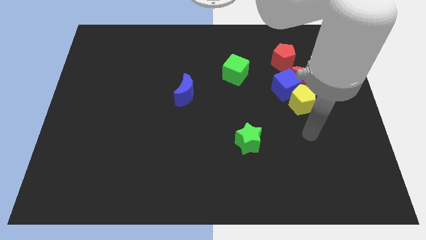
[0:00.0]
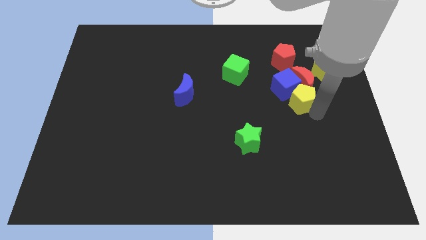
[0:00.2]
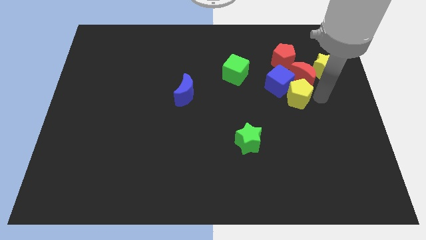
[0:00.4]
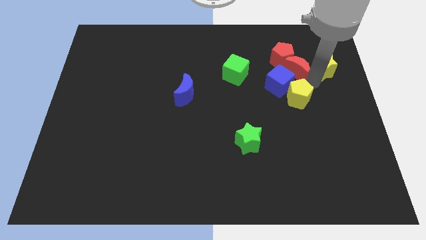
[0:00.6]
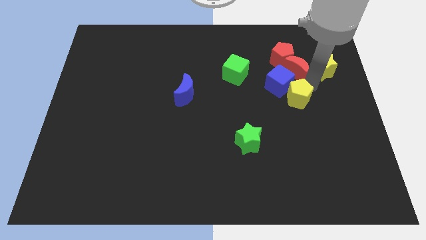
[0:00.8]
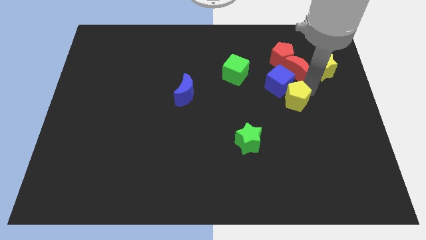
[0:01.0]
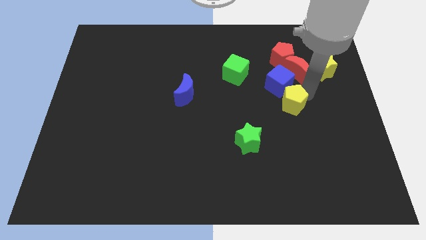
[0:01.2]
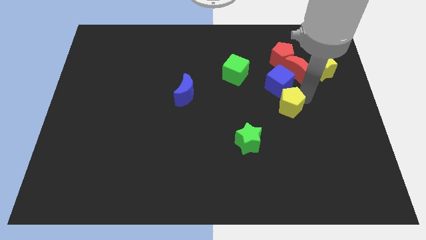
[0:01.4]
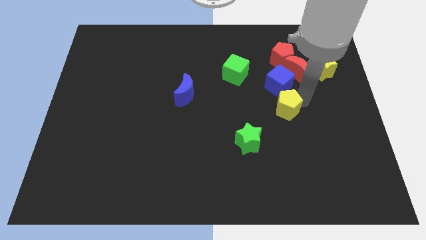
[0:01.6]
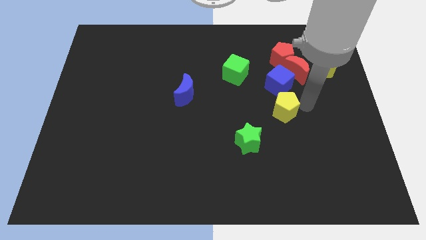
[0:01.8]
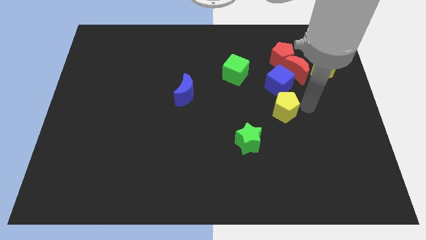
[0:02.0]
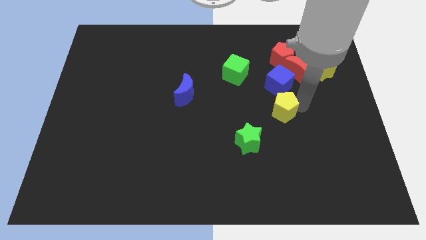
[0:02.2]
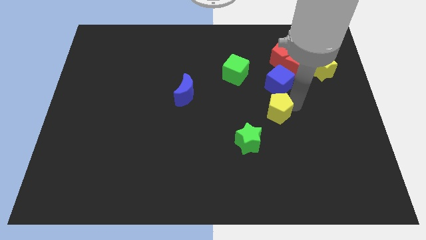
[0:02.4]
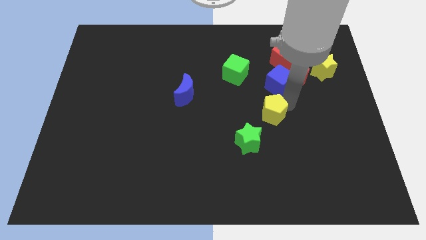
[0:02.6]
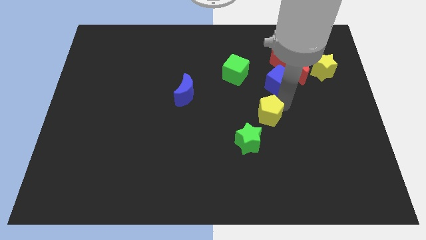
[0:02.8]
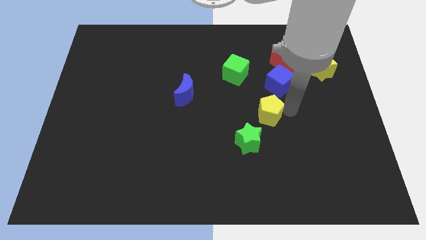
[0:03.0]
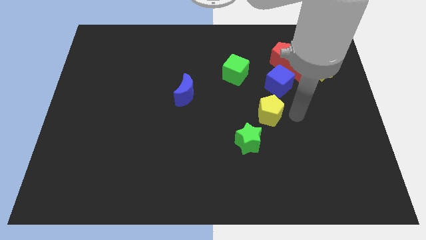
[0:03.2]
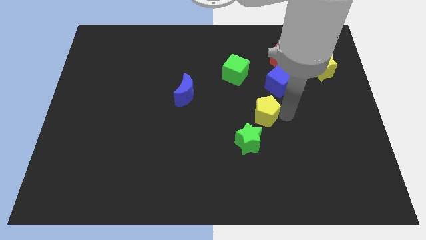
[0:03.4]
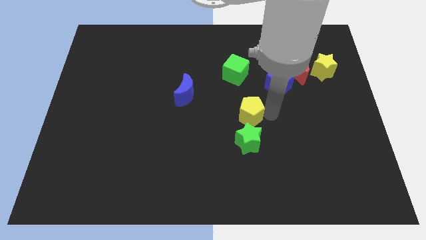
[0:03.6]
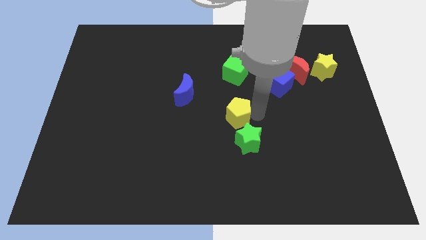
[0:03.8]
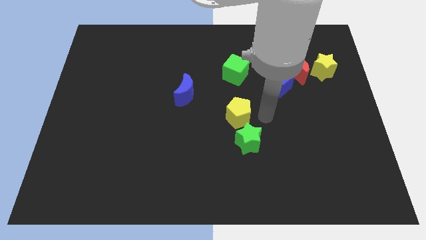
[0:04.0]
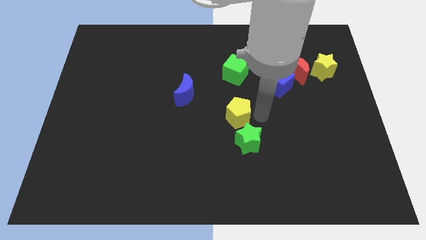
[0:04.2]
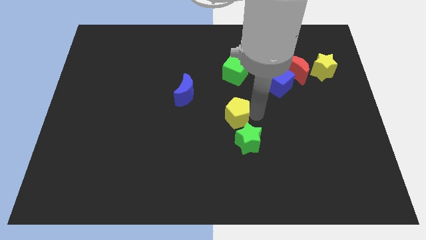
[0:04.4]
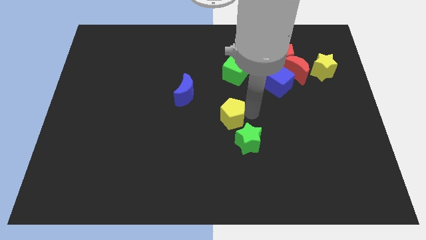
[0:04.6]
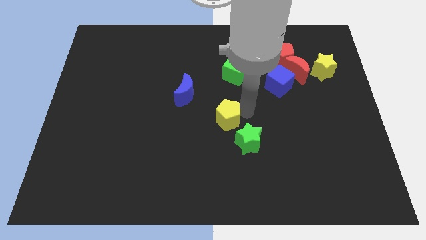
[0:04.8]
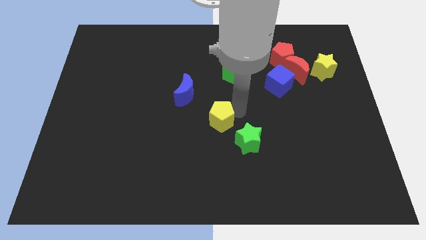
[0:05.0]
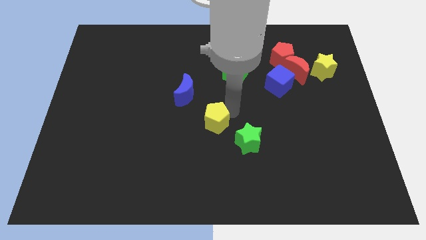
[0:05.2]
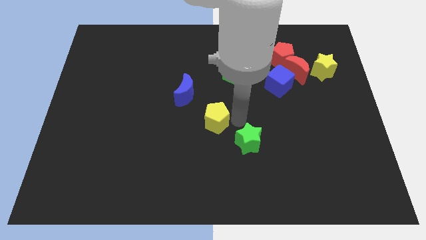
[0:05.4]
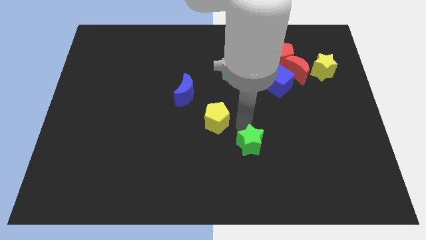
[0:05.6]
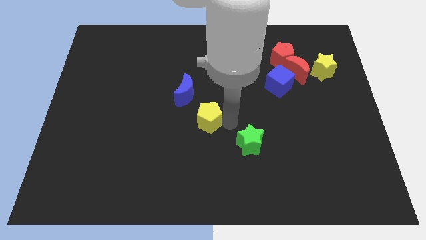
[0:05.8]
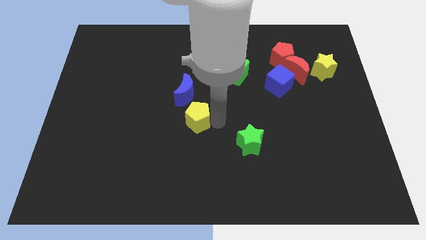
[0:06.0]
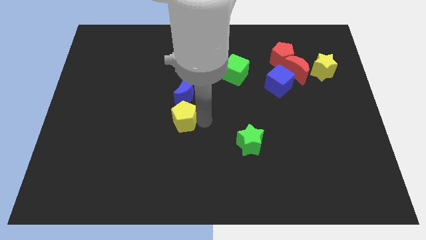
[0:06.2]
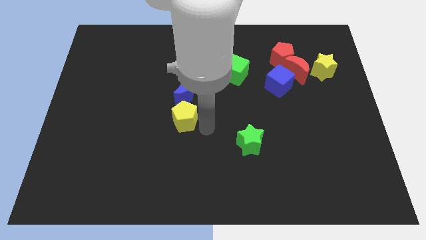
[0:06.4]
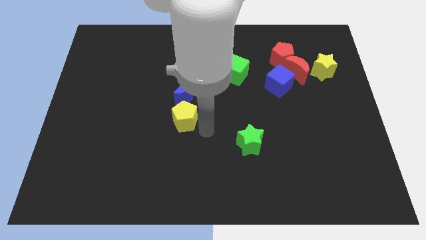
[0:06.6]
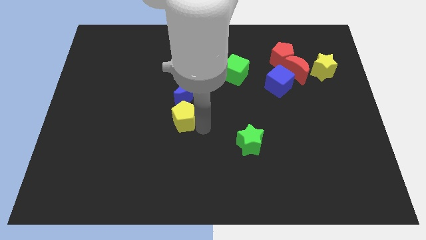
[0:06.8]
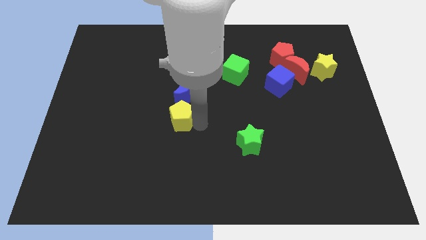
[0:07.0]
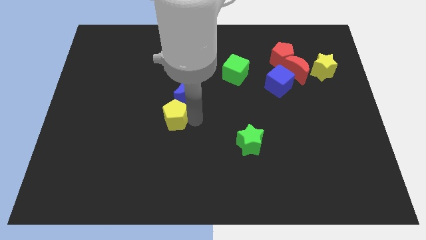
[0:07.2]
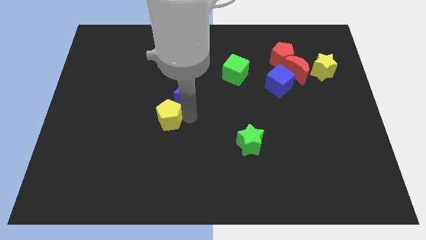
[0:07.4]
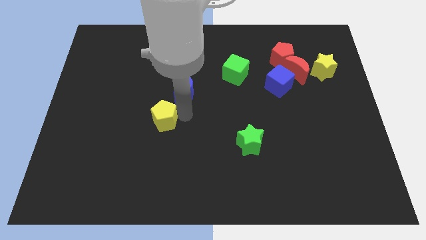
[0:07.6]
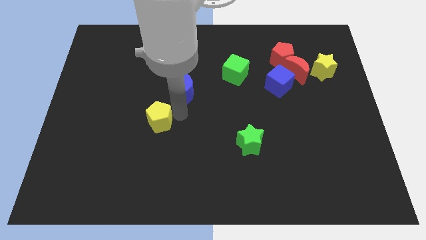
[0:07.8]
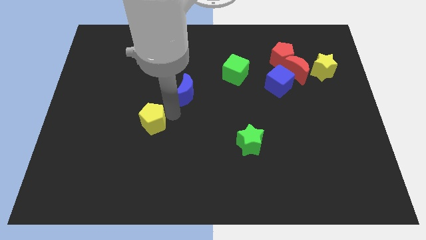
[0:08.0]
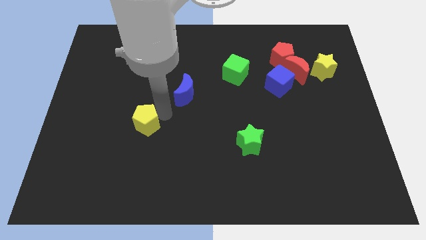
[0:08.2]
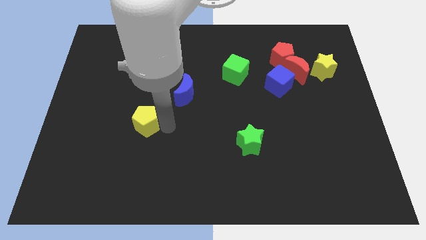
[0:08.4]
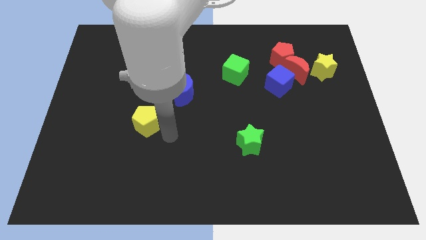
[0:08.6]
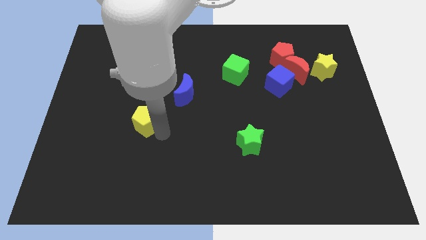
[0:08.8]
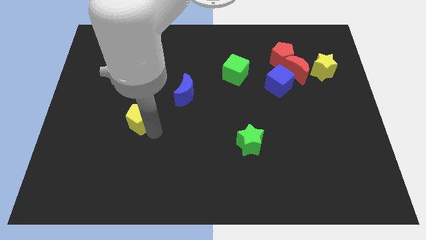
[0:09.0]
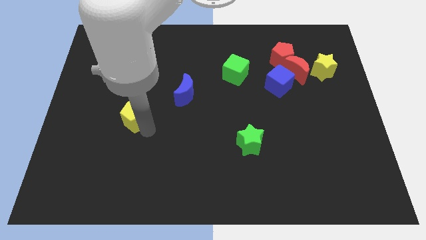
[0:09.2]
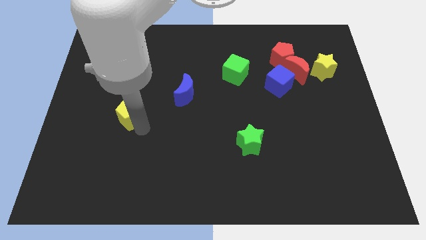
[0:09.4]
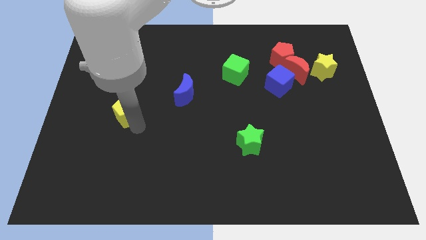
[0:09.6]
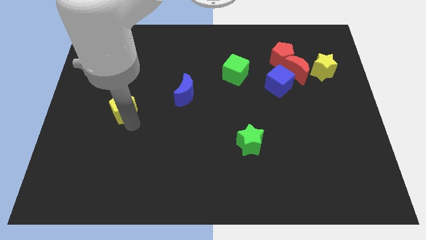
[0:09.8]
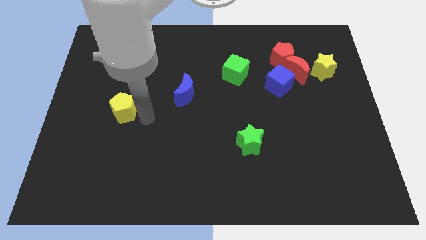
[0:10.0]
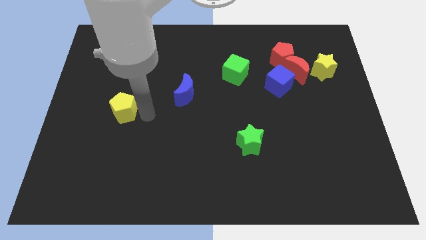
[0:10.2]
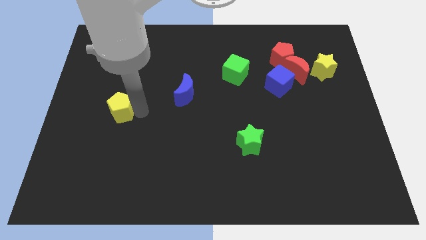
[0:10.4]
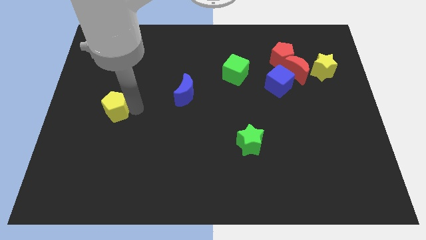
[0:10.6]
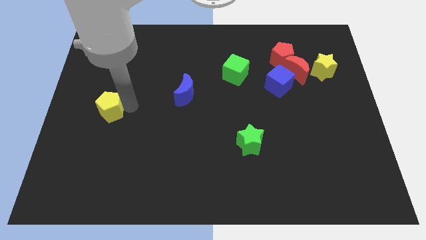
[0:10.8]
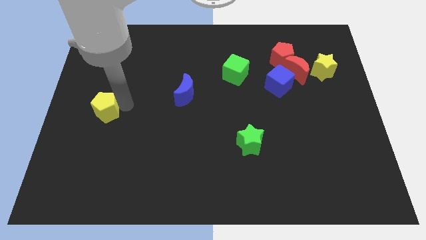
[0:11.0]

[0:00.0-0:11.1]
put the yellow pentagon to the center left

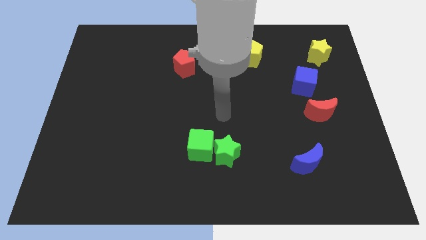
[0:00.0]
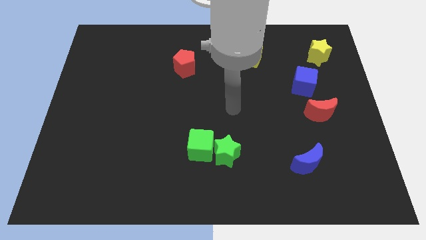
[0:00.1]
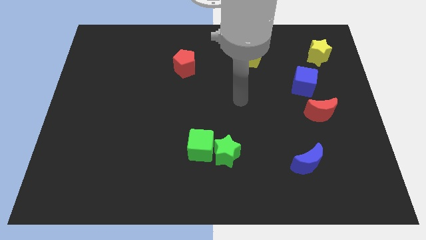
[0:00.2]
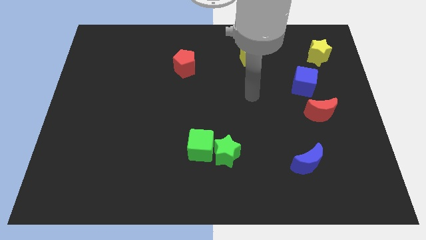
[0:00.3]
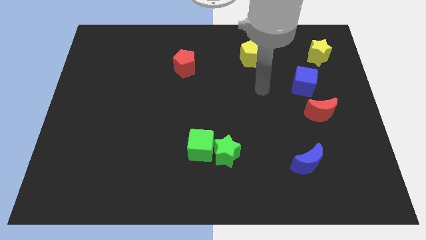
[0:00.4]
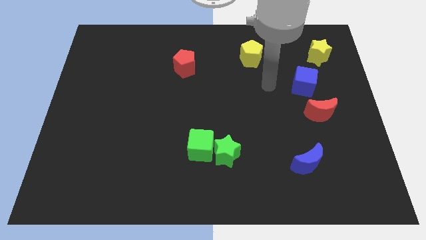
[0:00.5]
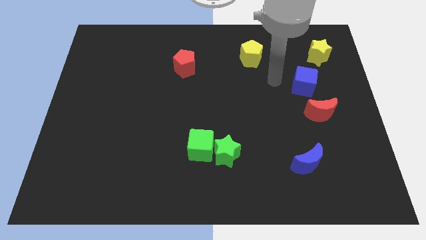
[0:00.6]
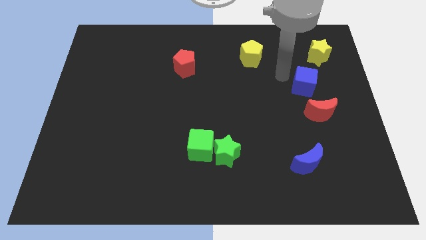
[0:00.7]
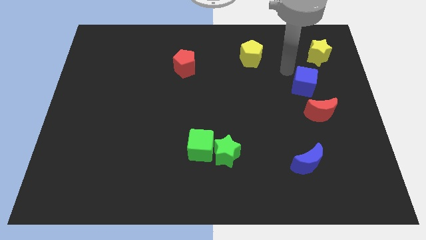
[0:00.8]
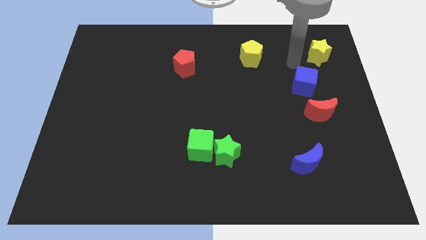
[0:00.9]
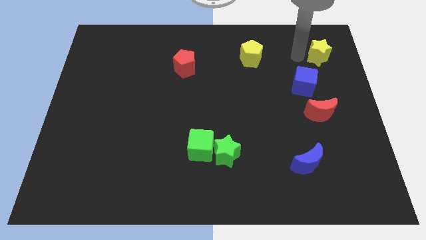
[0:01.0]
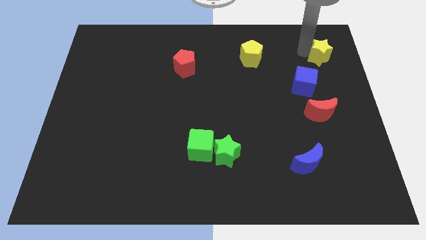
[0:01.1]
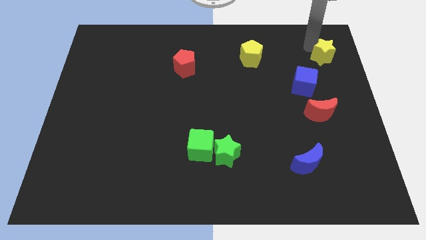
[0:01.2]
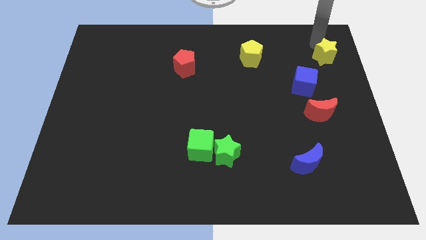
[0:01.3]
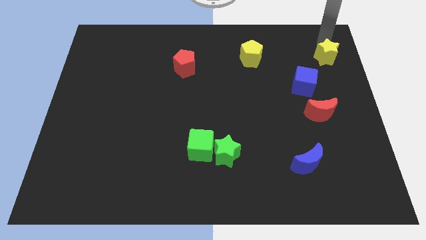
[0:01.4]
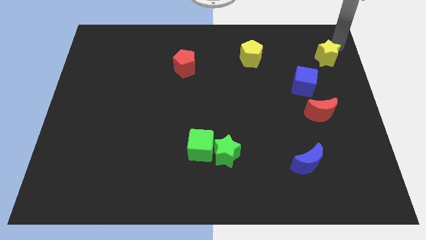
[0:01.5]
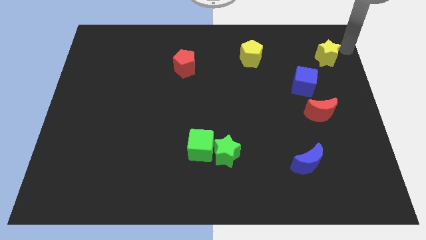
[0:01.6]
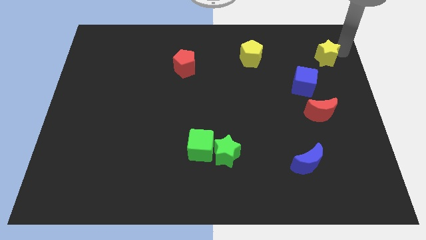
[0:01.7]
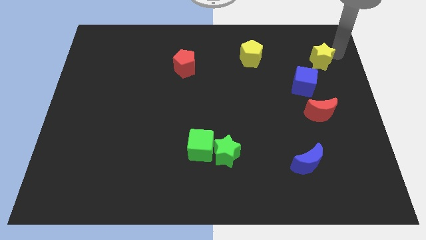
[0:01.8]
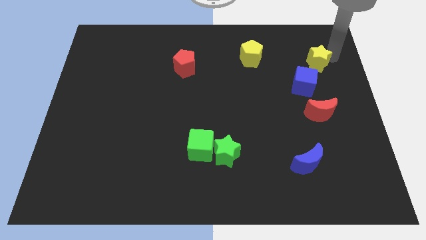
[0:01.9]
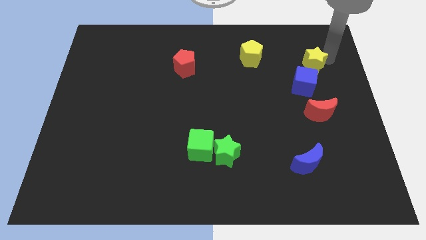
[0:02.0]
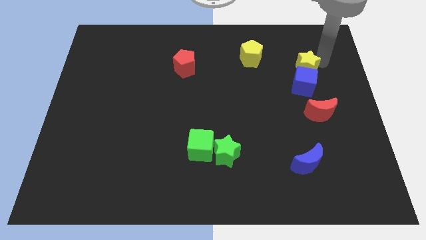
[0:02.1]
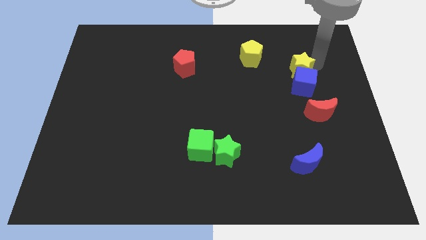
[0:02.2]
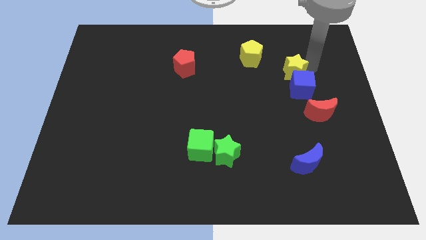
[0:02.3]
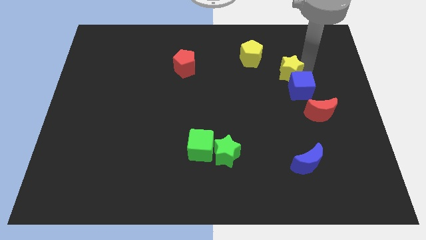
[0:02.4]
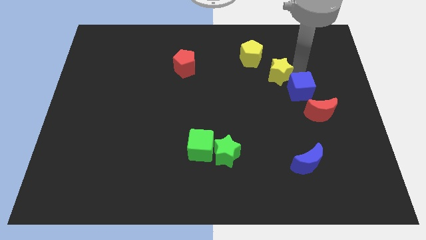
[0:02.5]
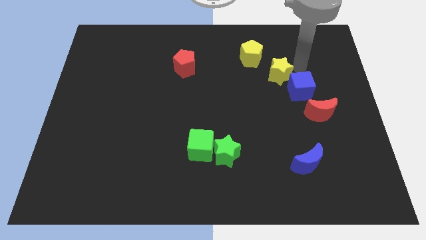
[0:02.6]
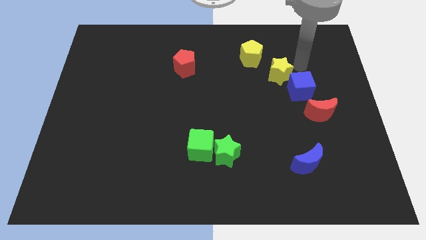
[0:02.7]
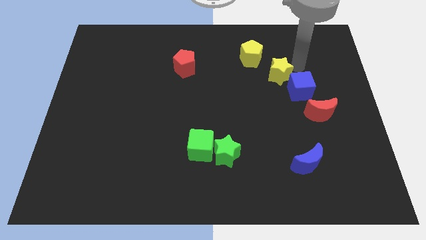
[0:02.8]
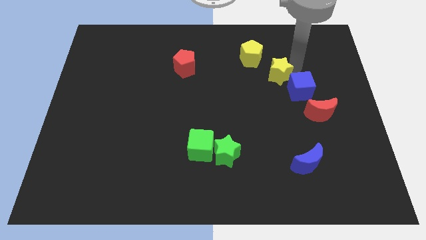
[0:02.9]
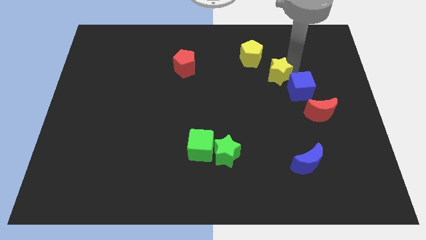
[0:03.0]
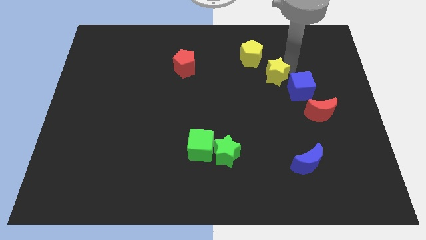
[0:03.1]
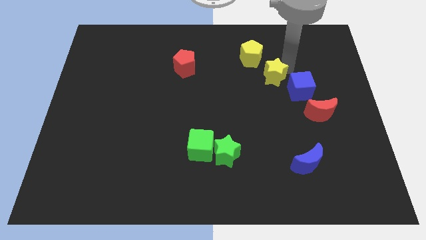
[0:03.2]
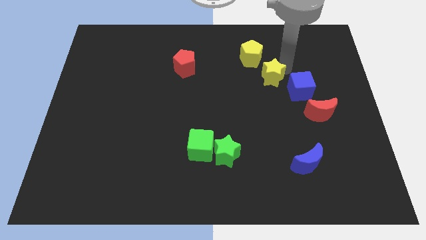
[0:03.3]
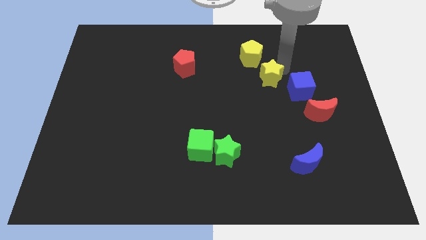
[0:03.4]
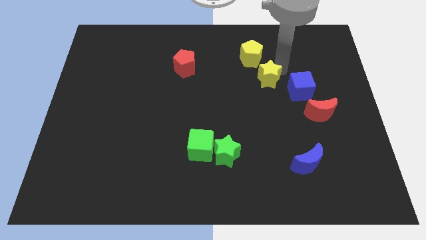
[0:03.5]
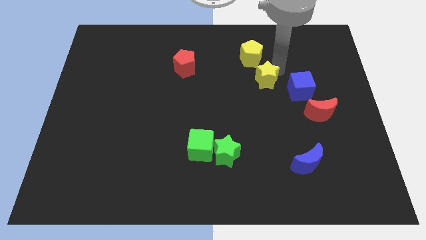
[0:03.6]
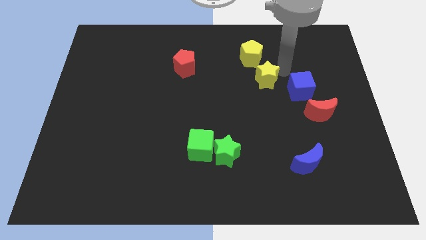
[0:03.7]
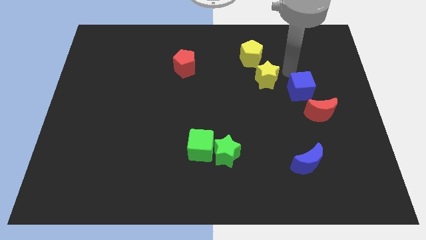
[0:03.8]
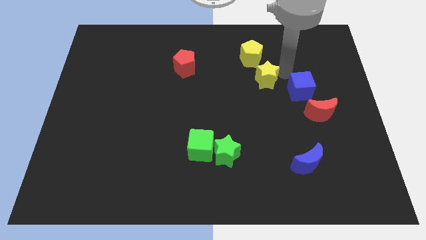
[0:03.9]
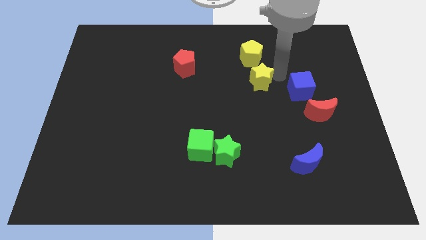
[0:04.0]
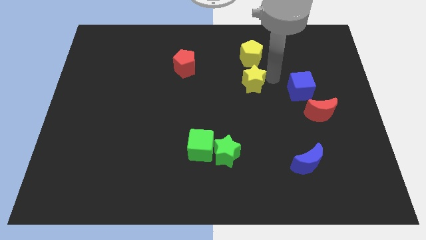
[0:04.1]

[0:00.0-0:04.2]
slide the yellow star to the middle
